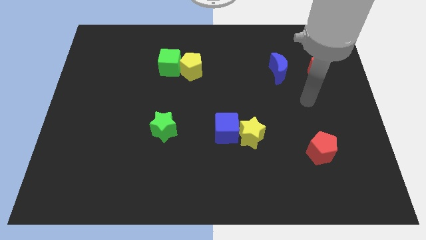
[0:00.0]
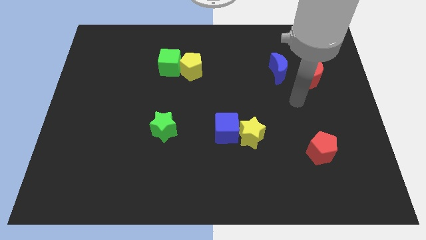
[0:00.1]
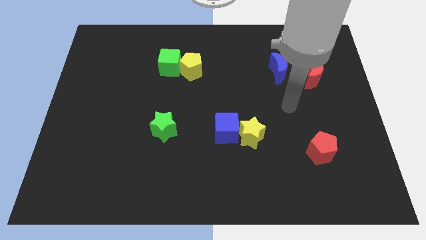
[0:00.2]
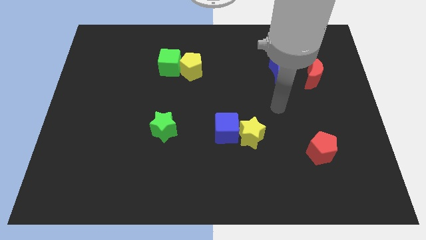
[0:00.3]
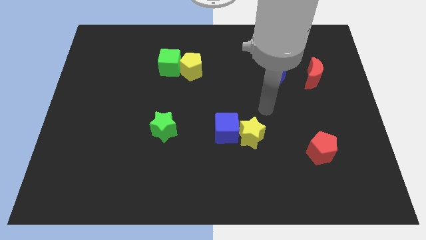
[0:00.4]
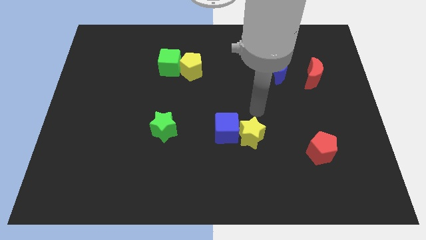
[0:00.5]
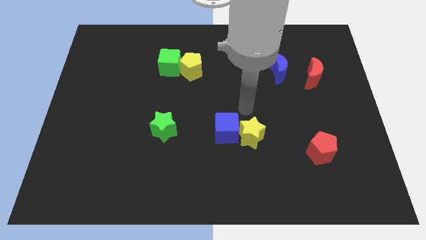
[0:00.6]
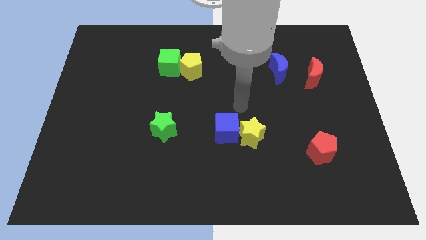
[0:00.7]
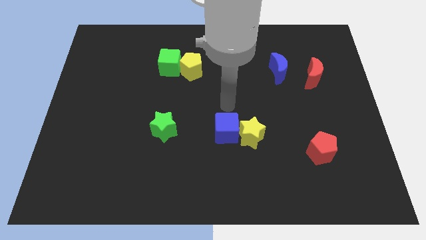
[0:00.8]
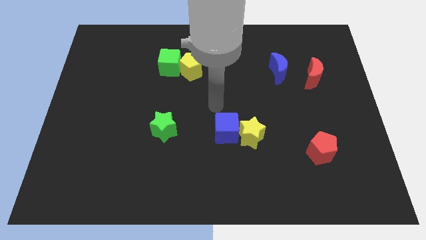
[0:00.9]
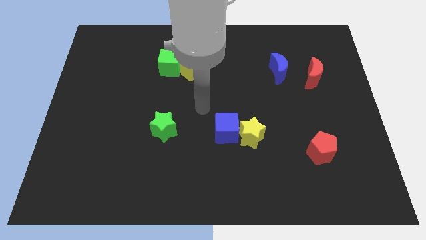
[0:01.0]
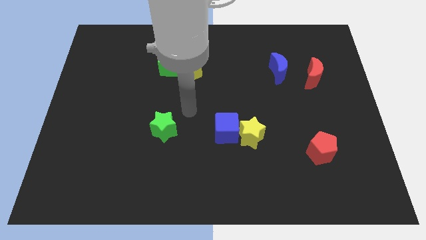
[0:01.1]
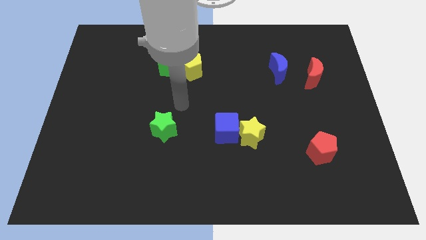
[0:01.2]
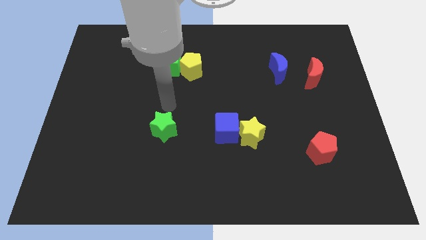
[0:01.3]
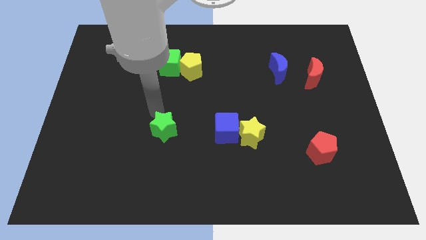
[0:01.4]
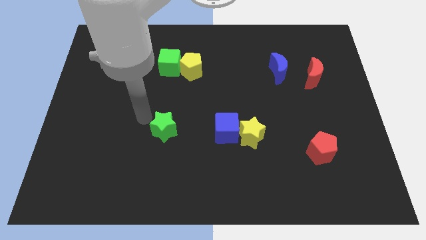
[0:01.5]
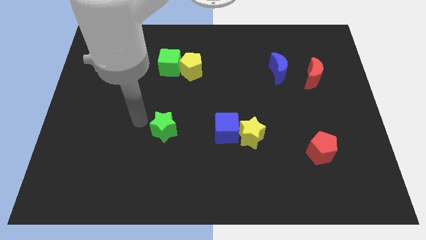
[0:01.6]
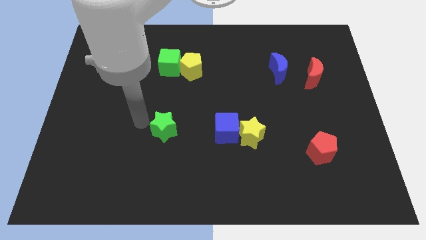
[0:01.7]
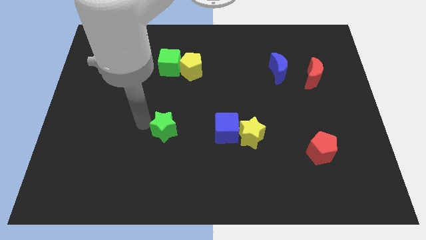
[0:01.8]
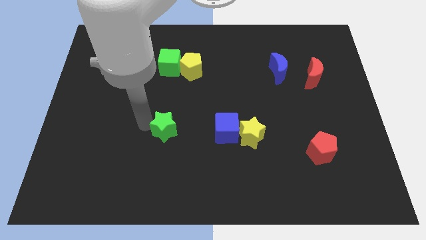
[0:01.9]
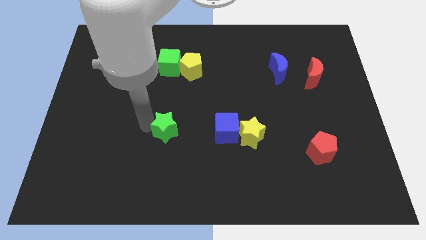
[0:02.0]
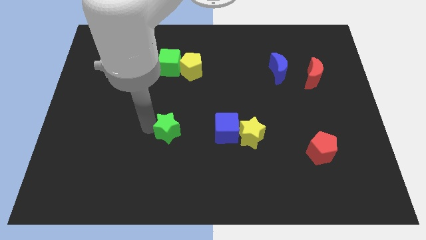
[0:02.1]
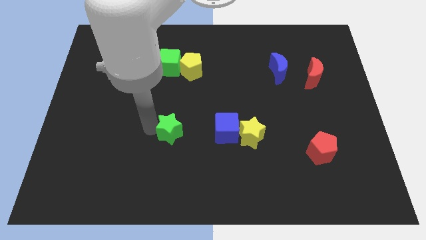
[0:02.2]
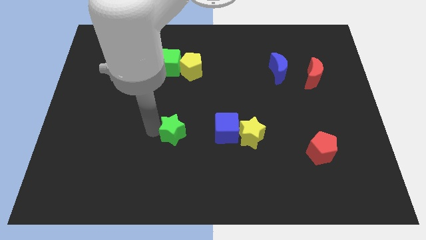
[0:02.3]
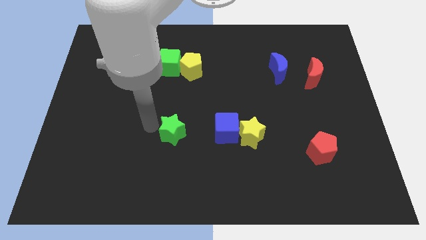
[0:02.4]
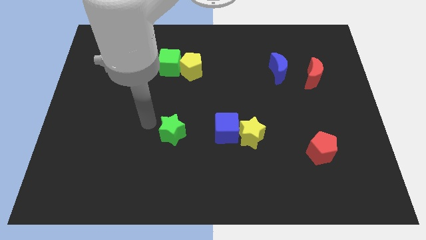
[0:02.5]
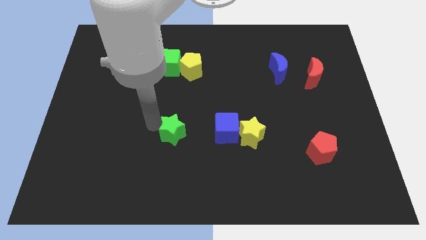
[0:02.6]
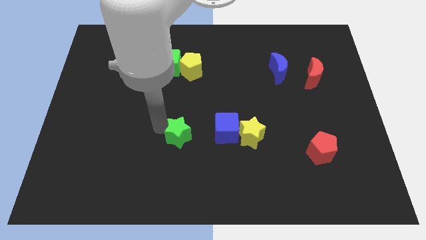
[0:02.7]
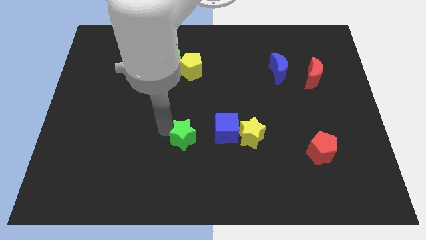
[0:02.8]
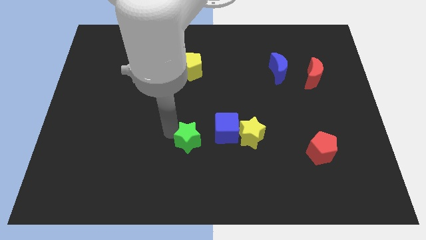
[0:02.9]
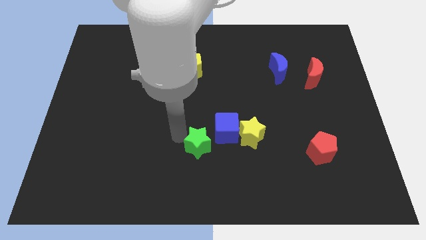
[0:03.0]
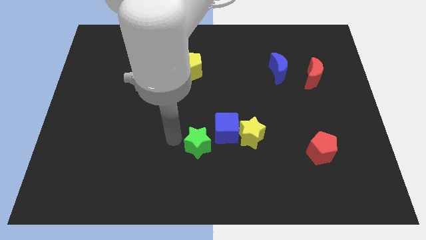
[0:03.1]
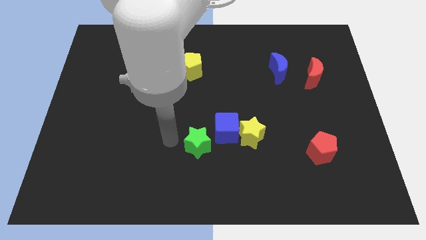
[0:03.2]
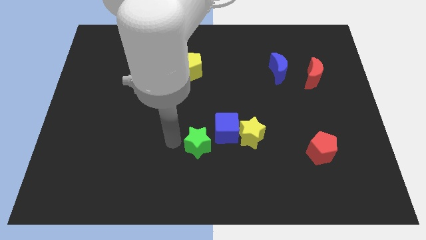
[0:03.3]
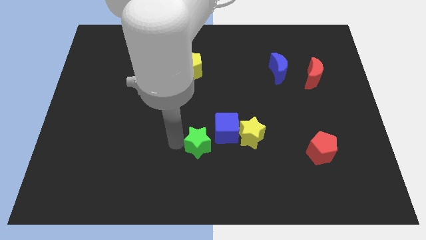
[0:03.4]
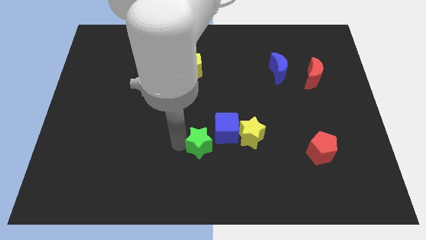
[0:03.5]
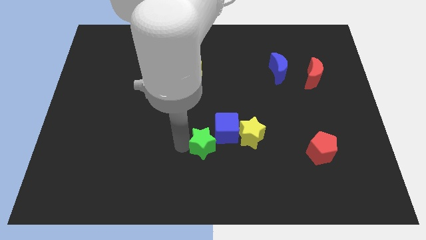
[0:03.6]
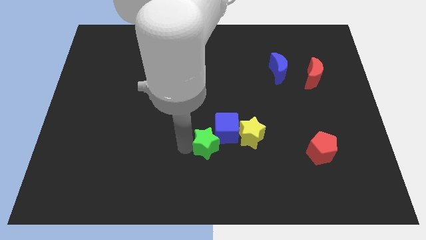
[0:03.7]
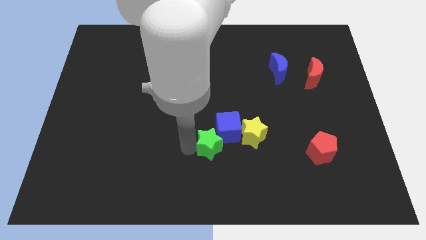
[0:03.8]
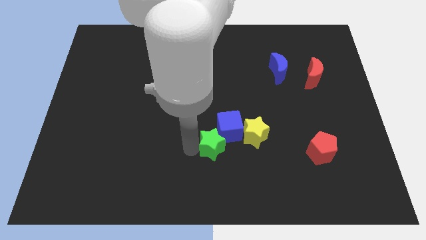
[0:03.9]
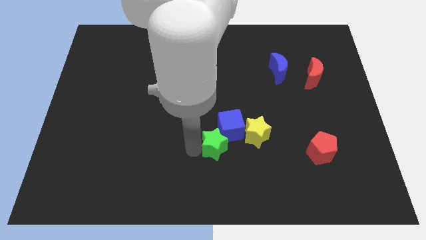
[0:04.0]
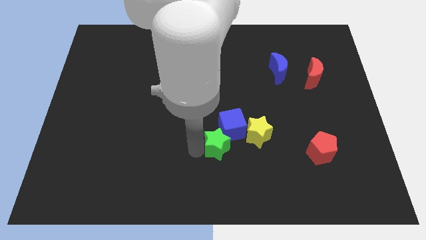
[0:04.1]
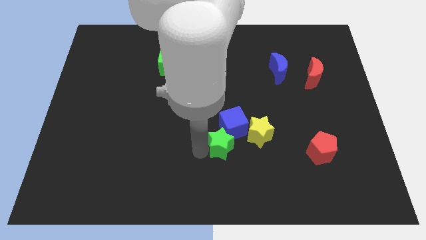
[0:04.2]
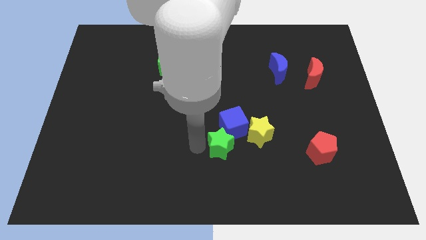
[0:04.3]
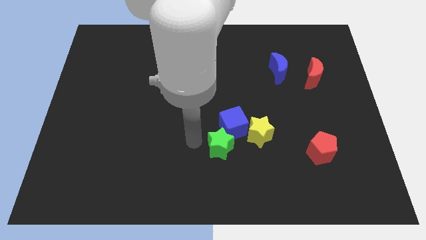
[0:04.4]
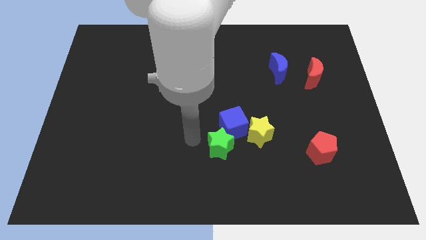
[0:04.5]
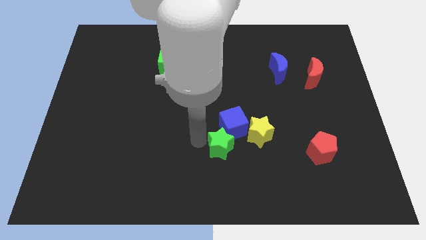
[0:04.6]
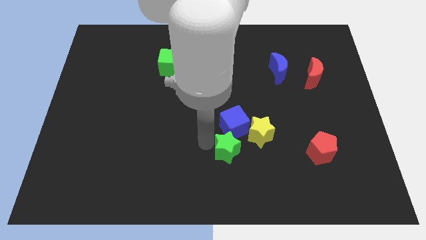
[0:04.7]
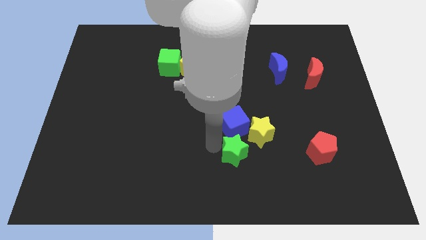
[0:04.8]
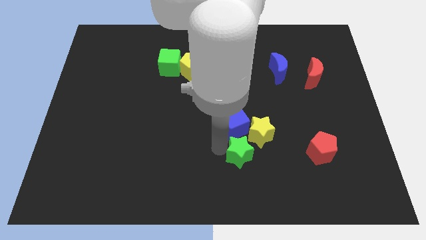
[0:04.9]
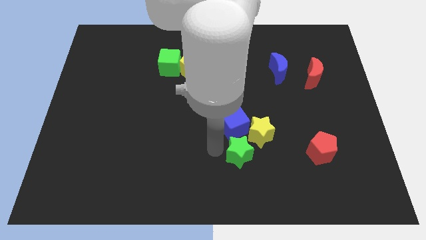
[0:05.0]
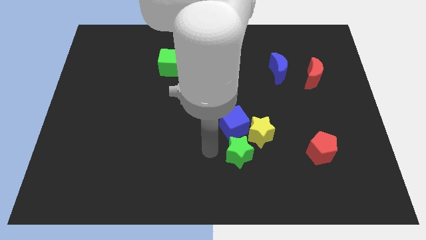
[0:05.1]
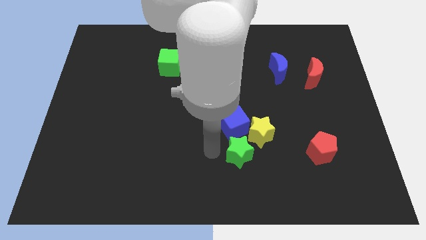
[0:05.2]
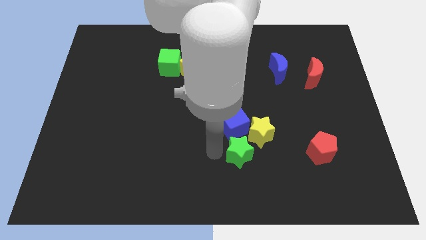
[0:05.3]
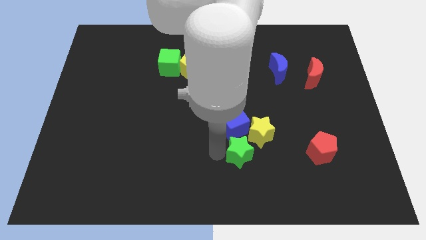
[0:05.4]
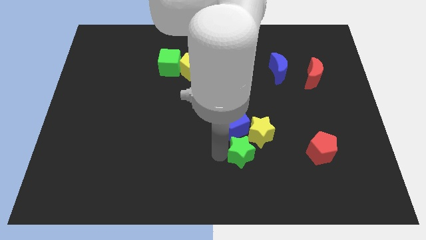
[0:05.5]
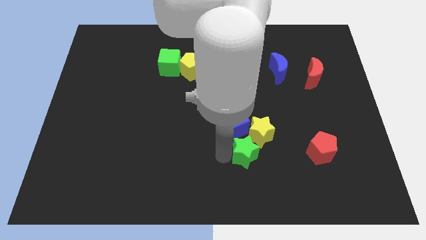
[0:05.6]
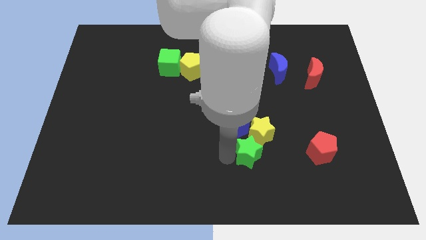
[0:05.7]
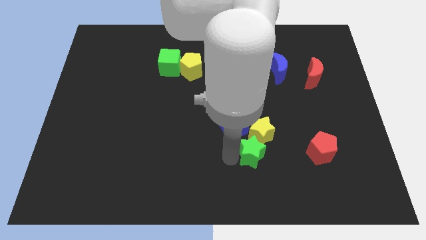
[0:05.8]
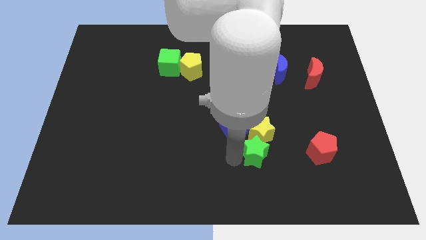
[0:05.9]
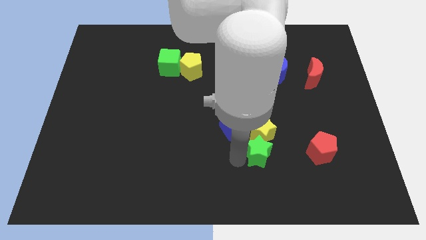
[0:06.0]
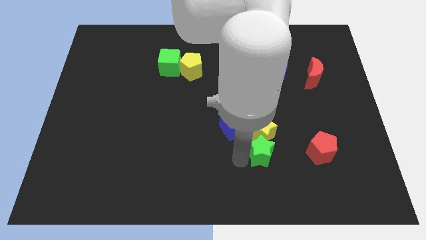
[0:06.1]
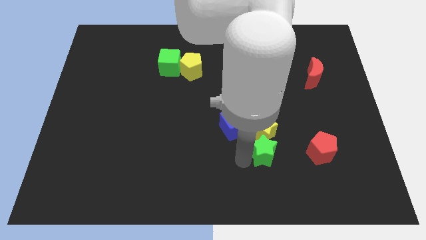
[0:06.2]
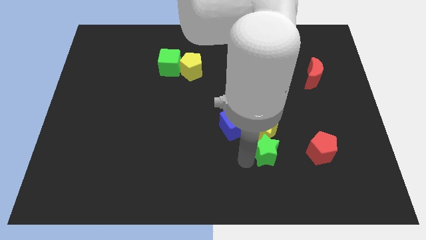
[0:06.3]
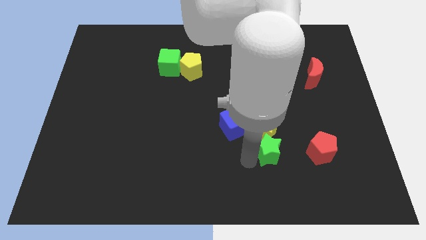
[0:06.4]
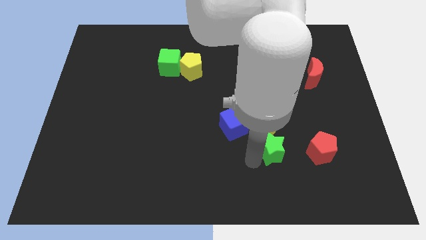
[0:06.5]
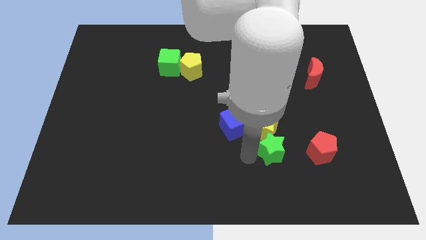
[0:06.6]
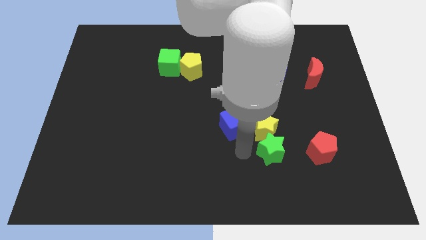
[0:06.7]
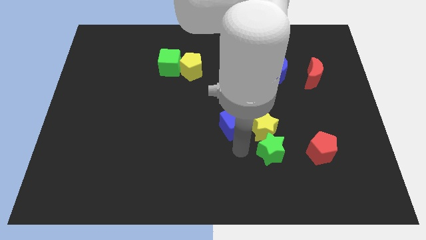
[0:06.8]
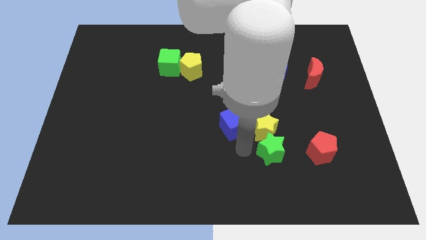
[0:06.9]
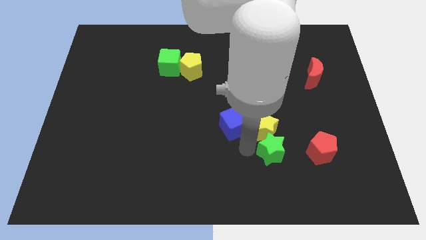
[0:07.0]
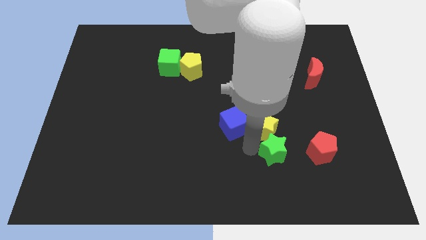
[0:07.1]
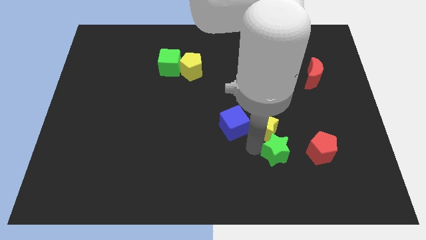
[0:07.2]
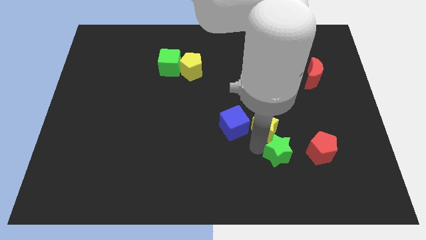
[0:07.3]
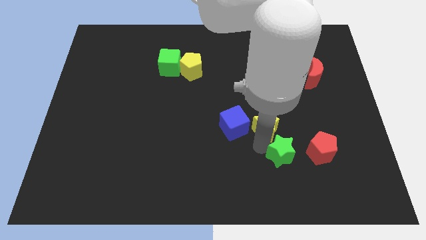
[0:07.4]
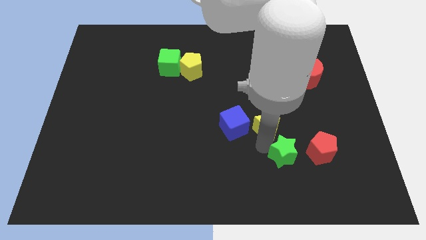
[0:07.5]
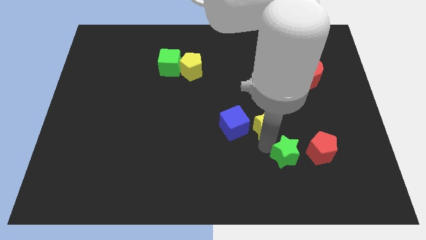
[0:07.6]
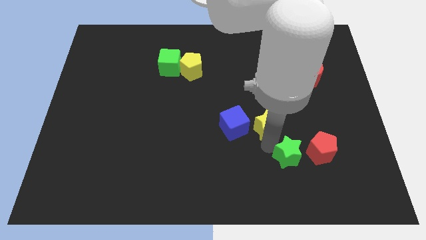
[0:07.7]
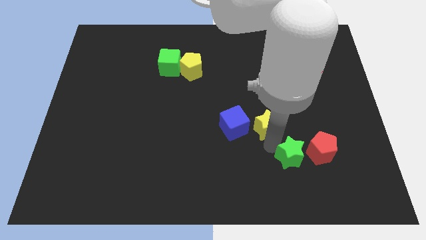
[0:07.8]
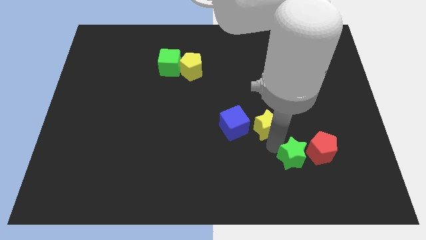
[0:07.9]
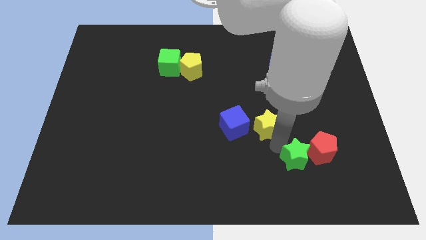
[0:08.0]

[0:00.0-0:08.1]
put the green star to the red pentagon
